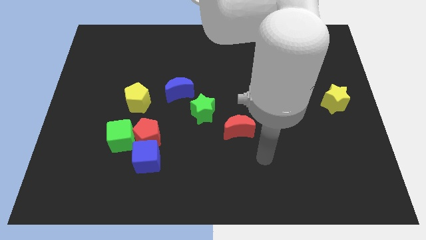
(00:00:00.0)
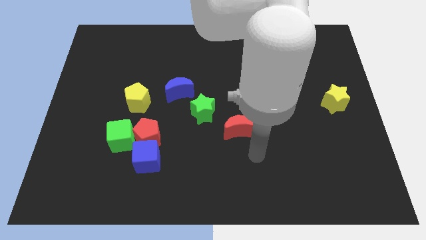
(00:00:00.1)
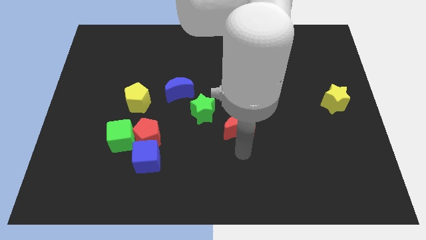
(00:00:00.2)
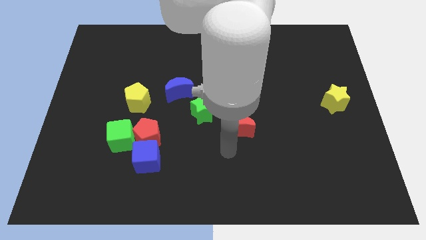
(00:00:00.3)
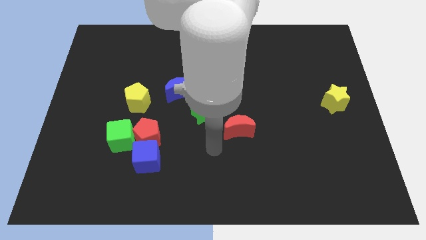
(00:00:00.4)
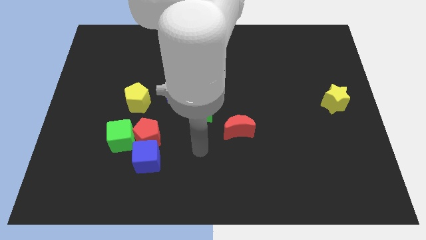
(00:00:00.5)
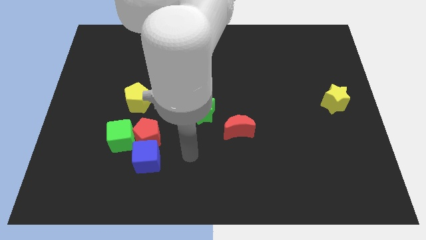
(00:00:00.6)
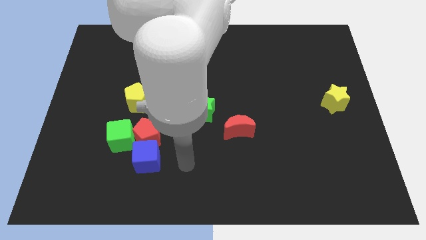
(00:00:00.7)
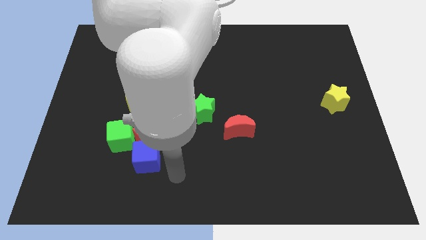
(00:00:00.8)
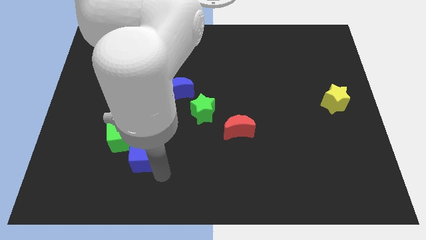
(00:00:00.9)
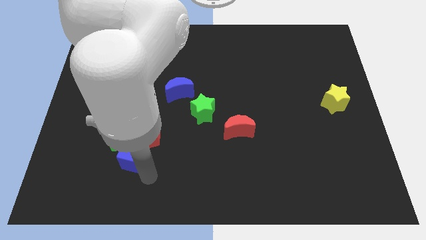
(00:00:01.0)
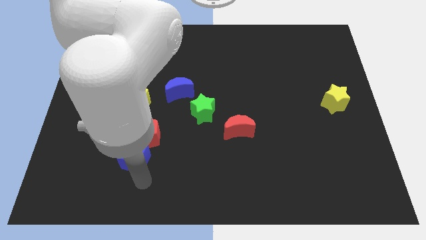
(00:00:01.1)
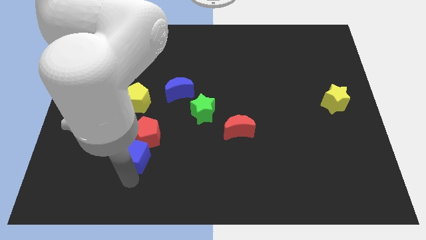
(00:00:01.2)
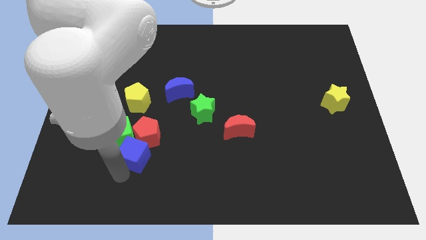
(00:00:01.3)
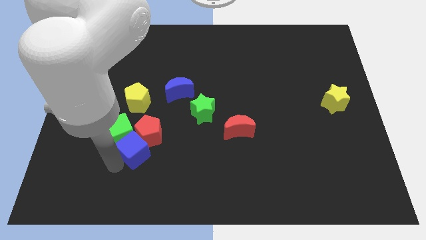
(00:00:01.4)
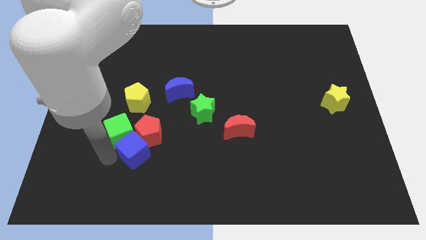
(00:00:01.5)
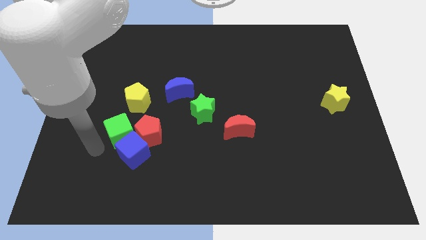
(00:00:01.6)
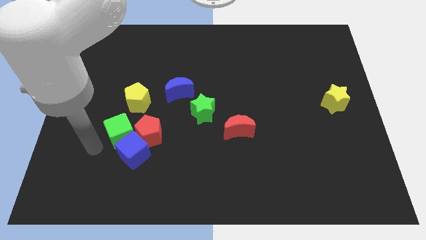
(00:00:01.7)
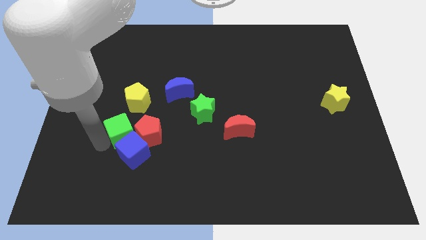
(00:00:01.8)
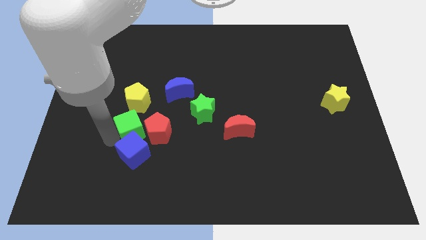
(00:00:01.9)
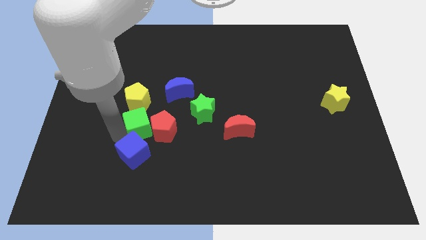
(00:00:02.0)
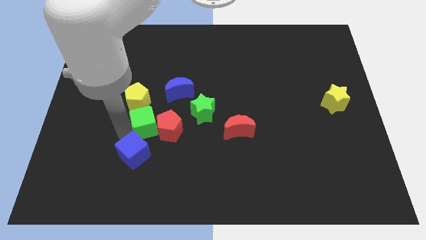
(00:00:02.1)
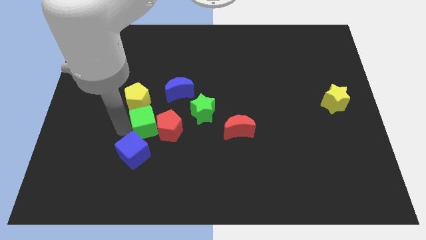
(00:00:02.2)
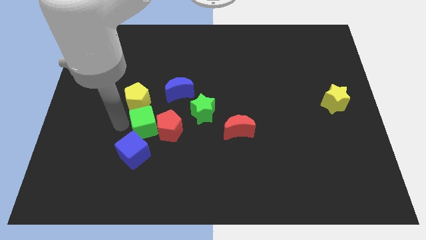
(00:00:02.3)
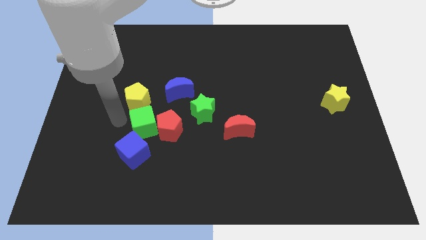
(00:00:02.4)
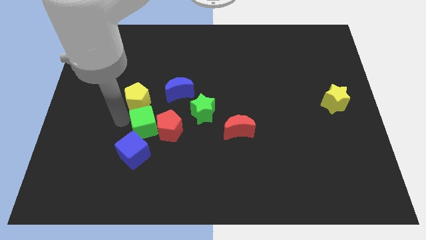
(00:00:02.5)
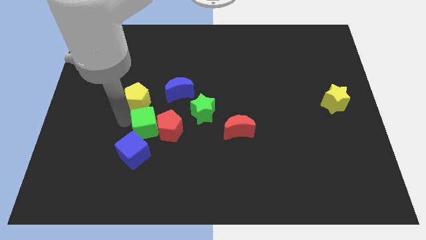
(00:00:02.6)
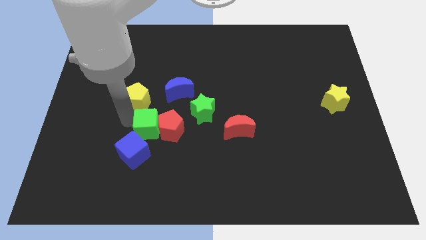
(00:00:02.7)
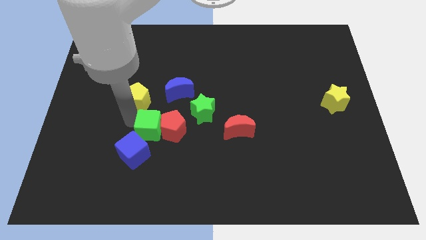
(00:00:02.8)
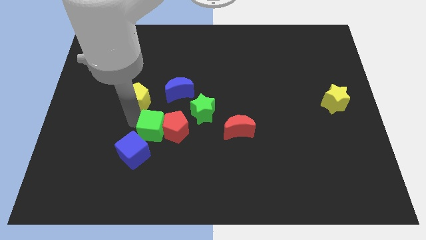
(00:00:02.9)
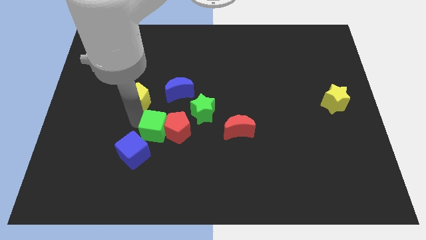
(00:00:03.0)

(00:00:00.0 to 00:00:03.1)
slide the green cube a little bit right

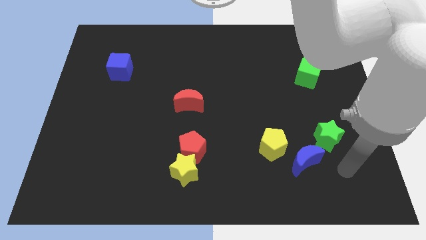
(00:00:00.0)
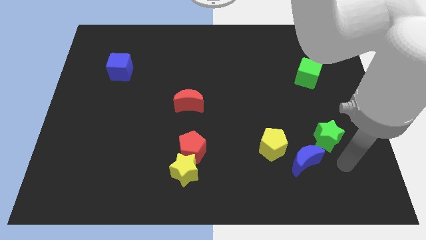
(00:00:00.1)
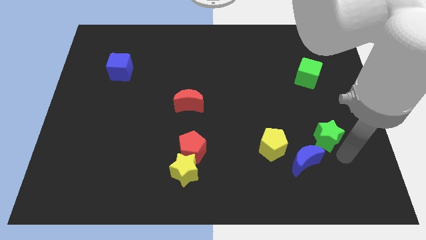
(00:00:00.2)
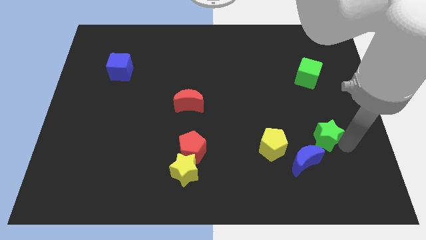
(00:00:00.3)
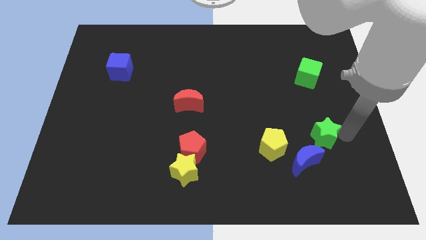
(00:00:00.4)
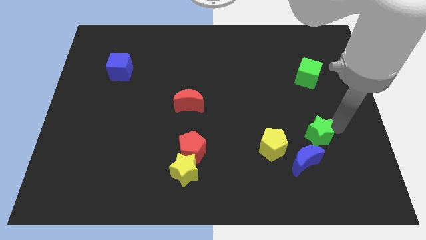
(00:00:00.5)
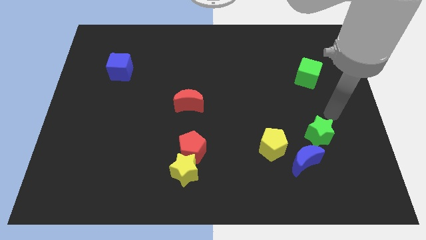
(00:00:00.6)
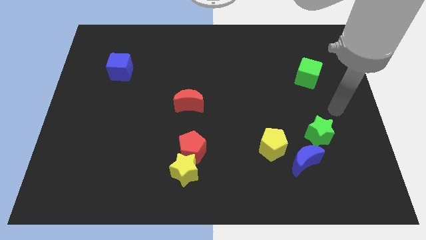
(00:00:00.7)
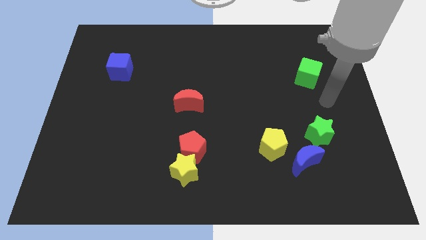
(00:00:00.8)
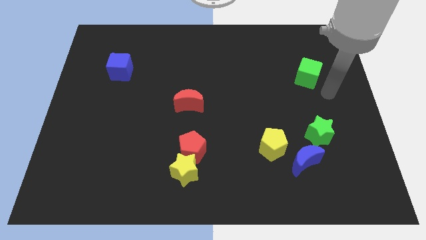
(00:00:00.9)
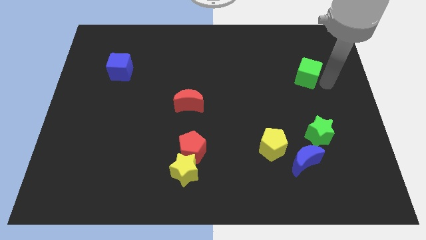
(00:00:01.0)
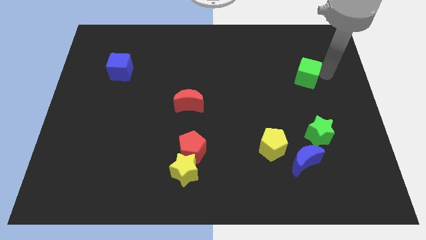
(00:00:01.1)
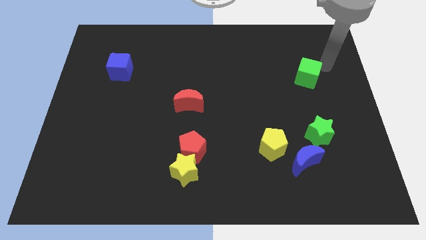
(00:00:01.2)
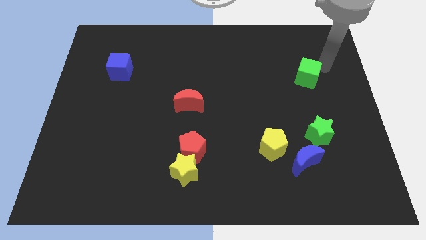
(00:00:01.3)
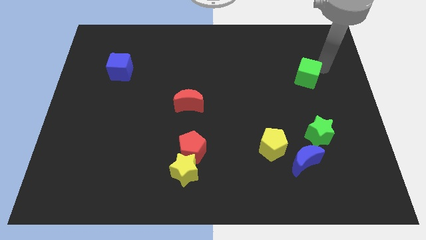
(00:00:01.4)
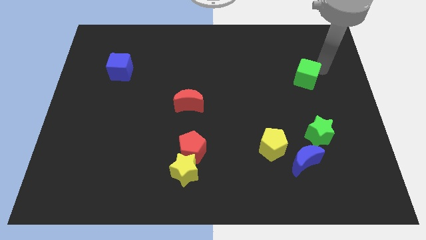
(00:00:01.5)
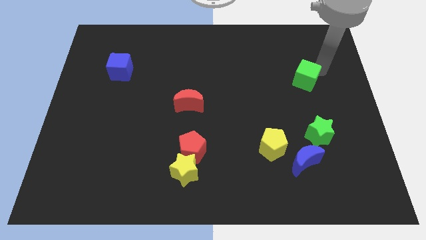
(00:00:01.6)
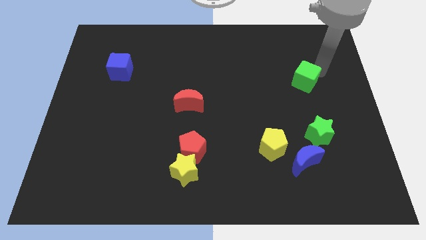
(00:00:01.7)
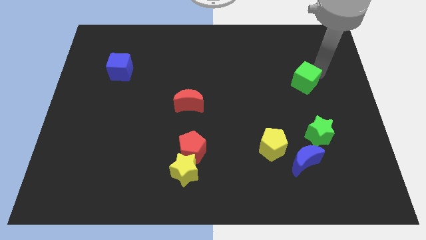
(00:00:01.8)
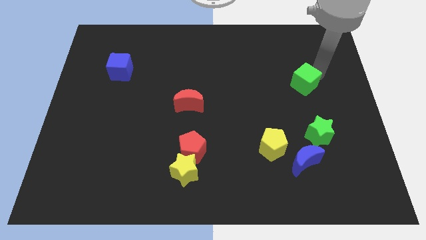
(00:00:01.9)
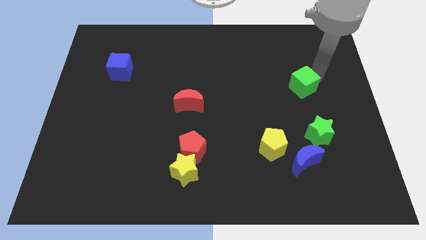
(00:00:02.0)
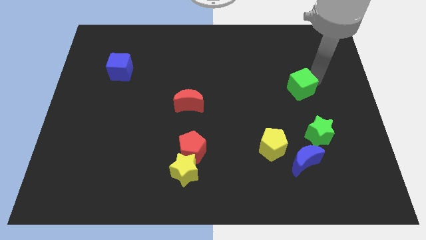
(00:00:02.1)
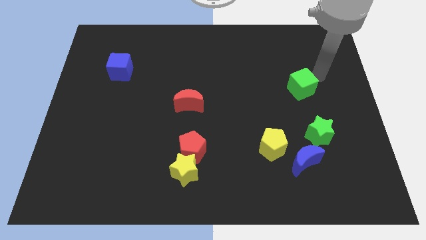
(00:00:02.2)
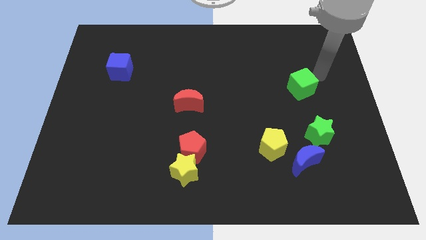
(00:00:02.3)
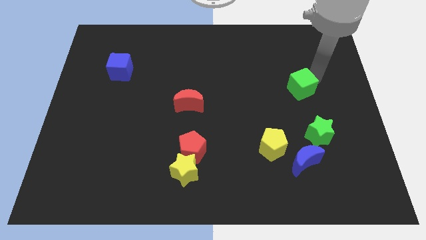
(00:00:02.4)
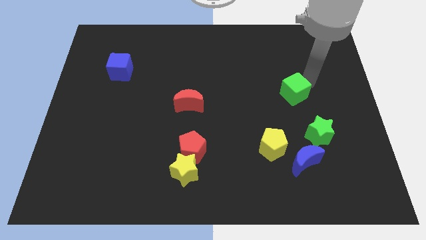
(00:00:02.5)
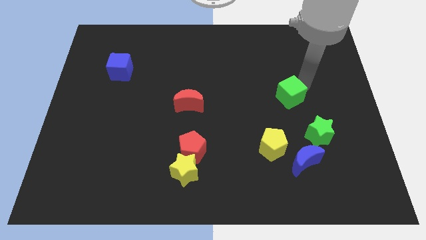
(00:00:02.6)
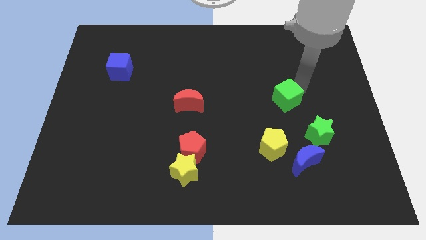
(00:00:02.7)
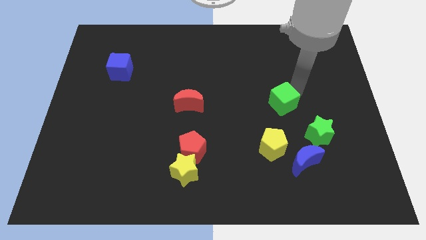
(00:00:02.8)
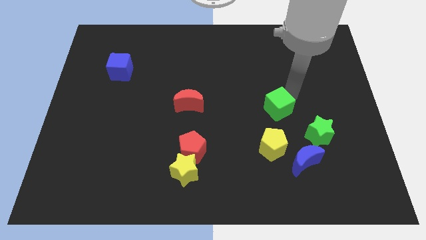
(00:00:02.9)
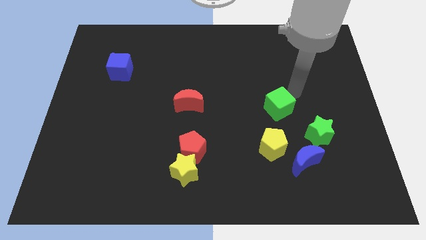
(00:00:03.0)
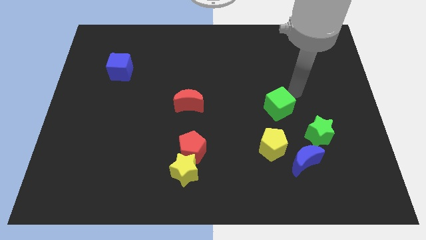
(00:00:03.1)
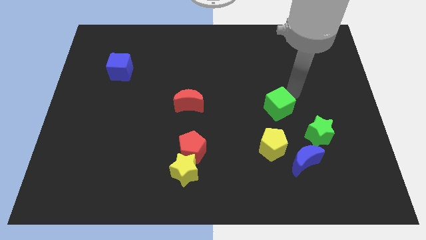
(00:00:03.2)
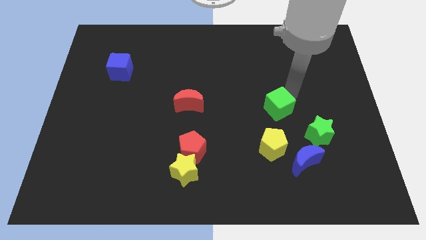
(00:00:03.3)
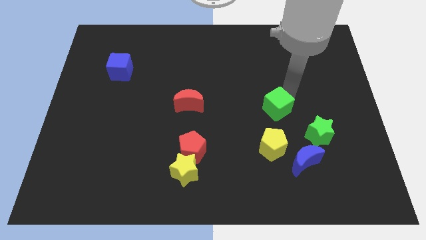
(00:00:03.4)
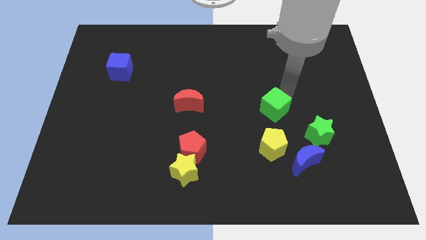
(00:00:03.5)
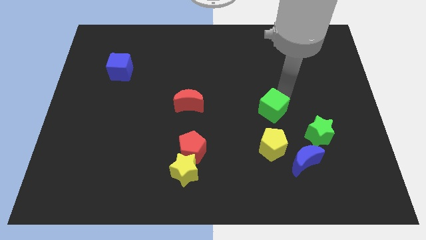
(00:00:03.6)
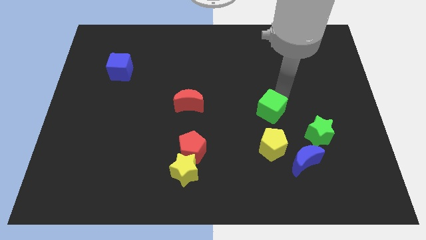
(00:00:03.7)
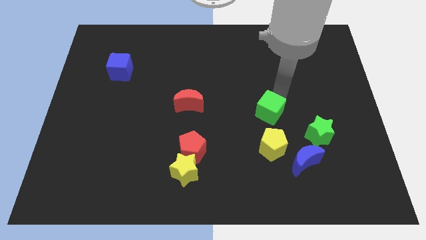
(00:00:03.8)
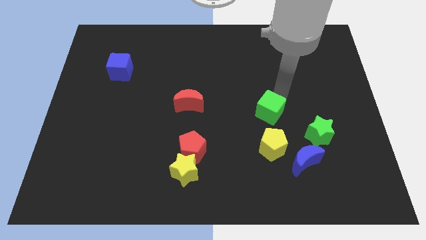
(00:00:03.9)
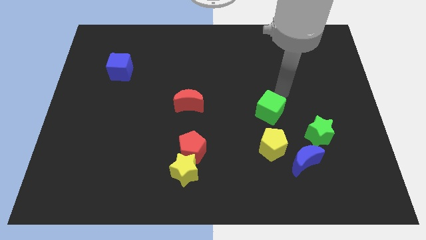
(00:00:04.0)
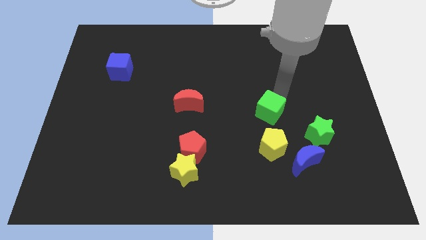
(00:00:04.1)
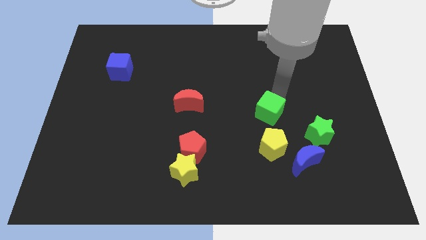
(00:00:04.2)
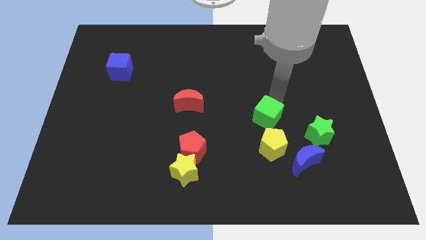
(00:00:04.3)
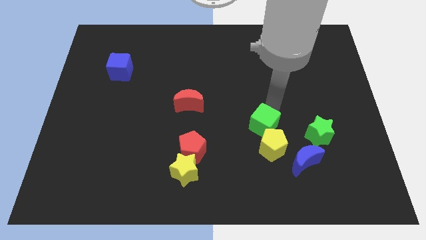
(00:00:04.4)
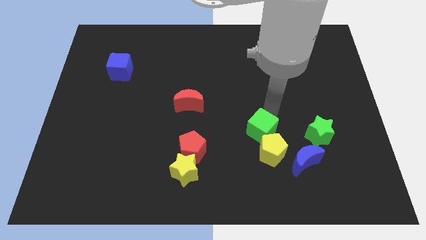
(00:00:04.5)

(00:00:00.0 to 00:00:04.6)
push the green cube diagonally downwards and to the left
